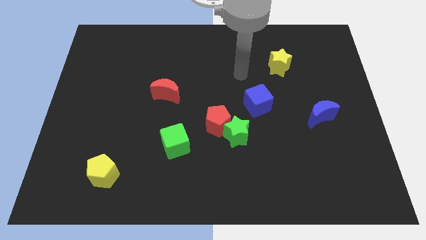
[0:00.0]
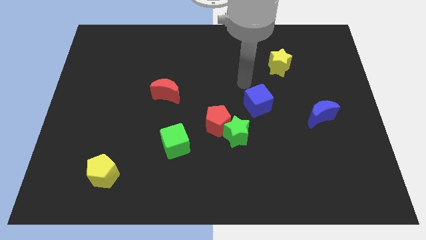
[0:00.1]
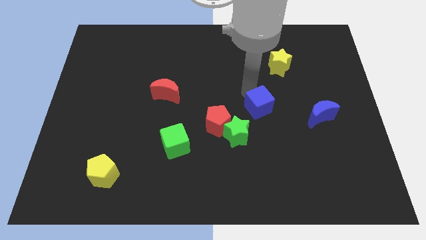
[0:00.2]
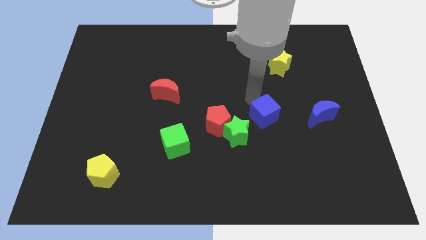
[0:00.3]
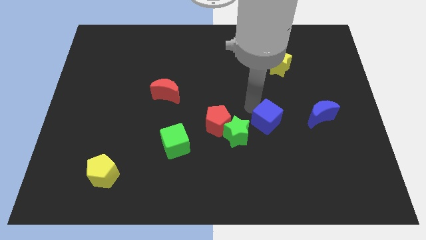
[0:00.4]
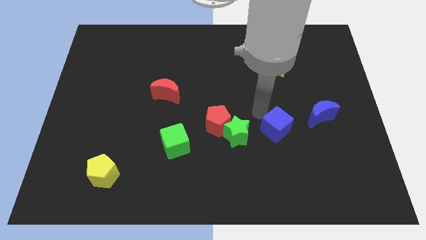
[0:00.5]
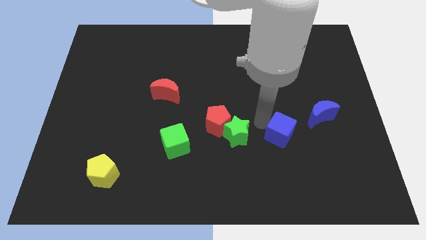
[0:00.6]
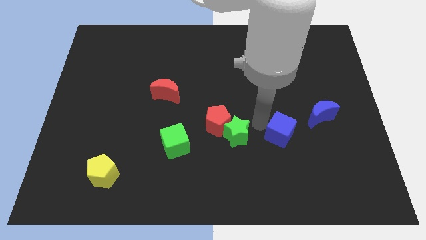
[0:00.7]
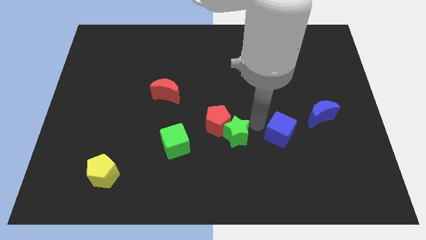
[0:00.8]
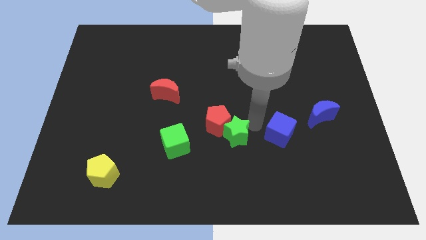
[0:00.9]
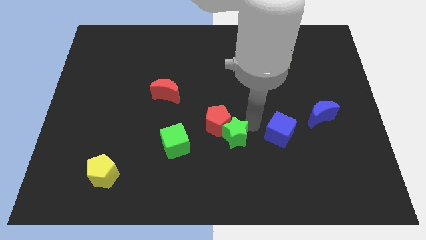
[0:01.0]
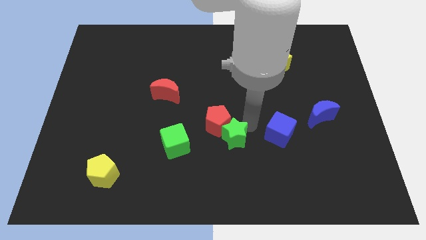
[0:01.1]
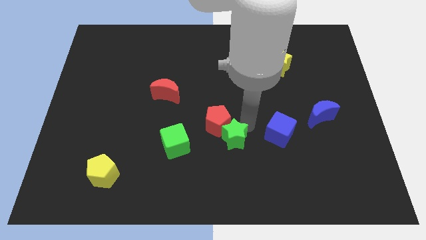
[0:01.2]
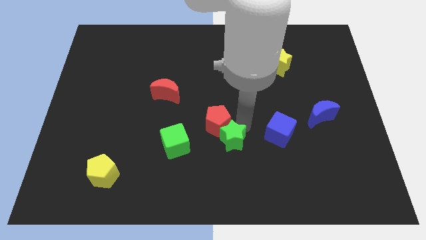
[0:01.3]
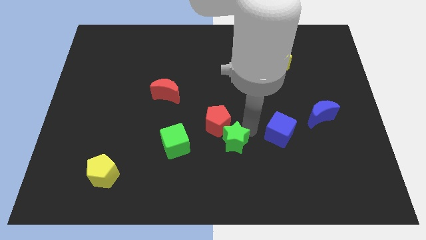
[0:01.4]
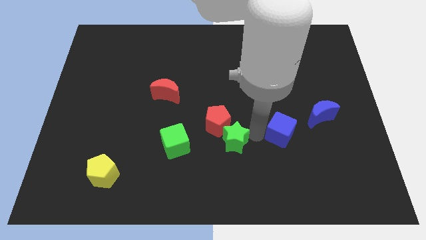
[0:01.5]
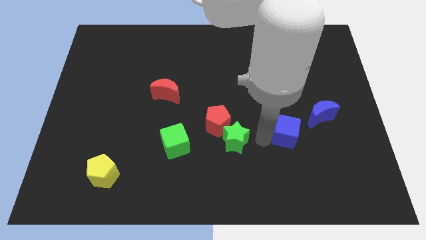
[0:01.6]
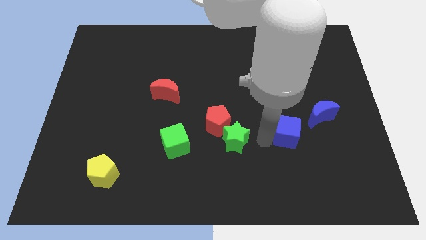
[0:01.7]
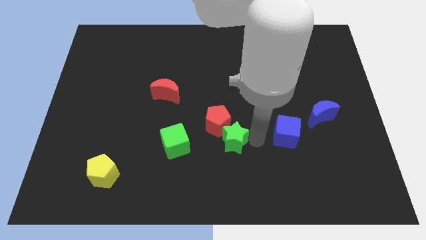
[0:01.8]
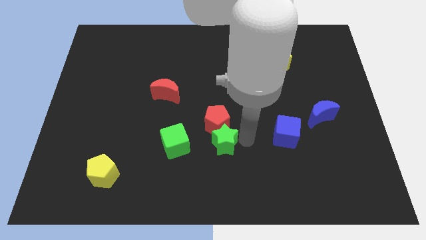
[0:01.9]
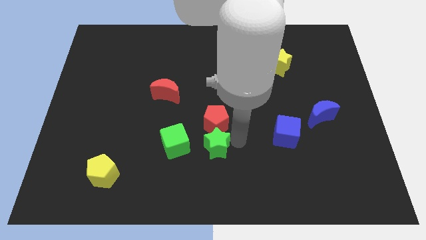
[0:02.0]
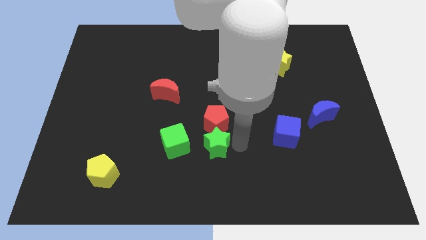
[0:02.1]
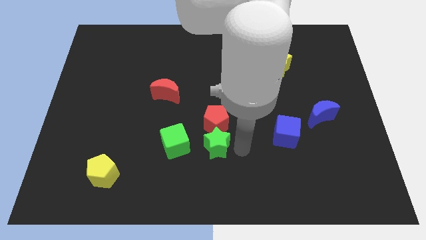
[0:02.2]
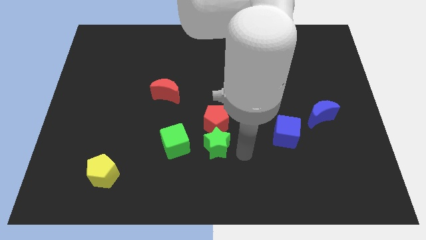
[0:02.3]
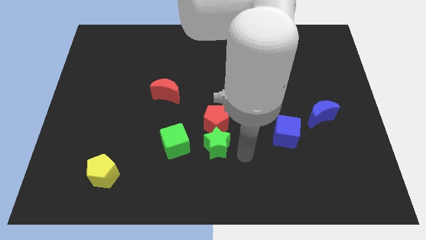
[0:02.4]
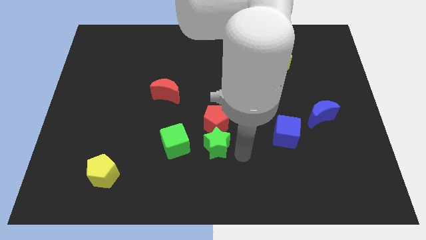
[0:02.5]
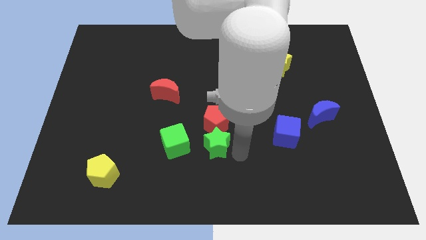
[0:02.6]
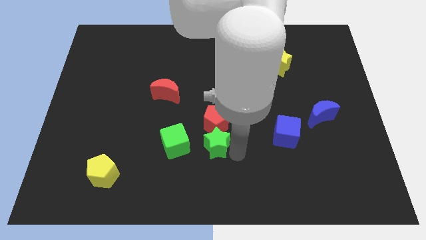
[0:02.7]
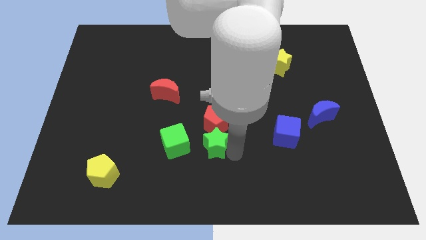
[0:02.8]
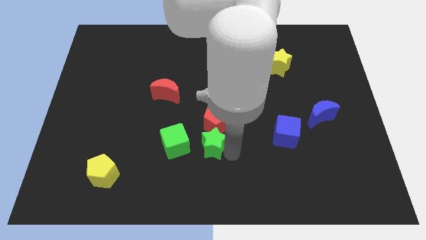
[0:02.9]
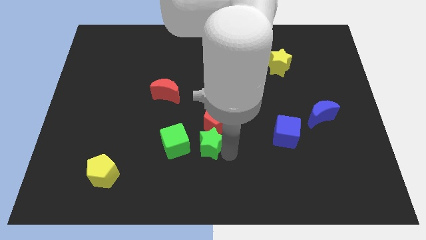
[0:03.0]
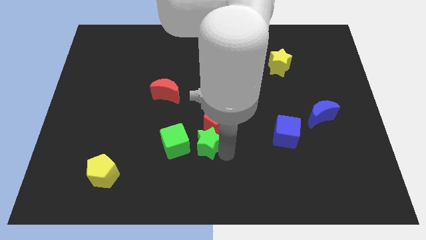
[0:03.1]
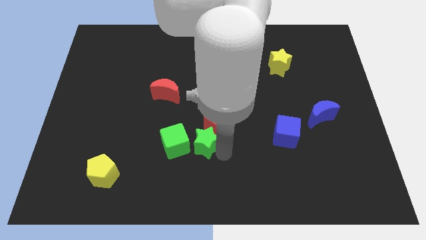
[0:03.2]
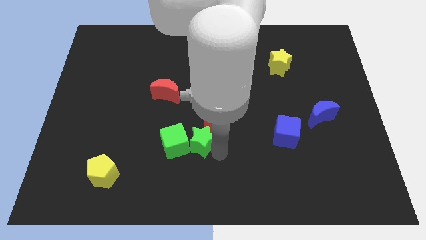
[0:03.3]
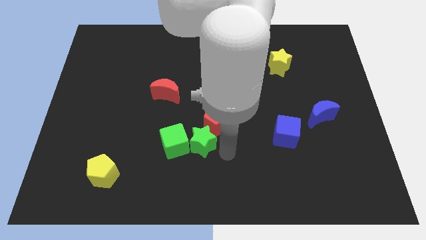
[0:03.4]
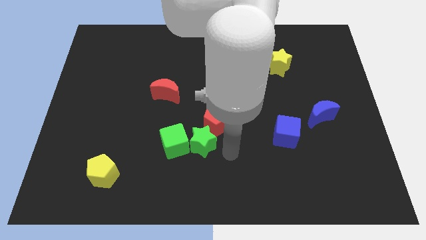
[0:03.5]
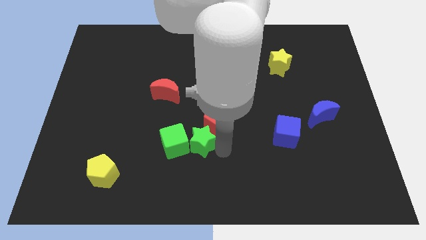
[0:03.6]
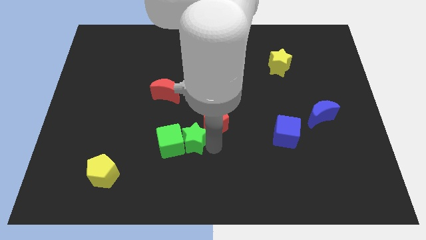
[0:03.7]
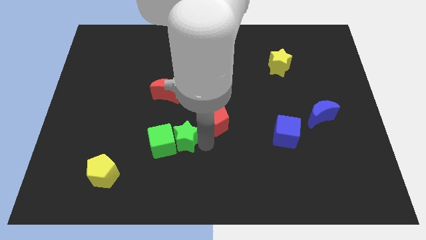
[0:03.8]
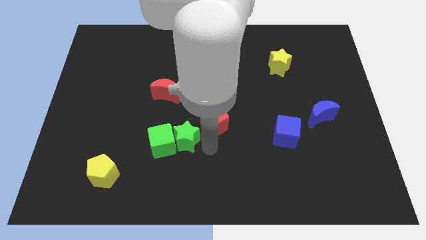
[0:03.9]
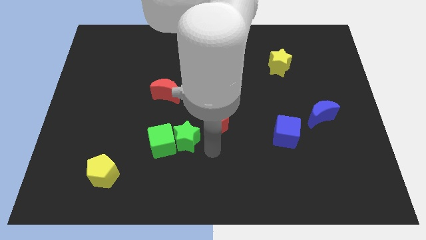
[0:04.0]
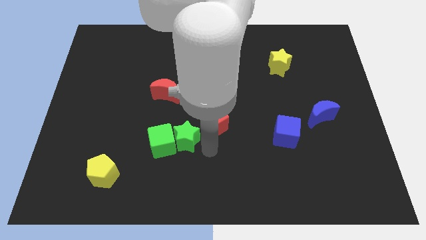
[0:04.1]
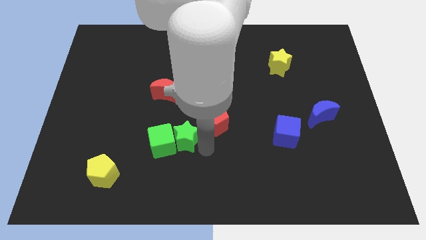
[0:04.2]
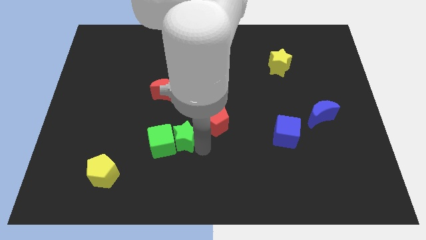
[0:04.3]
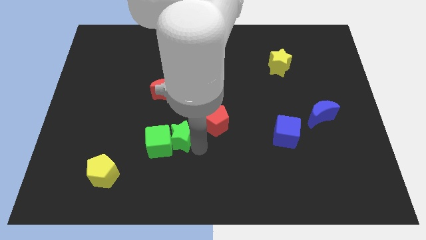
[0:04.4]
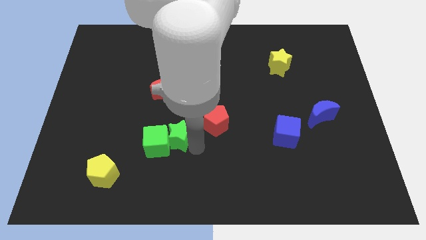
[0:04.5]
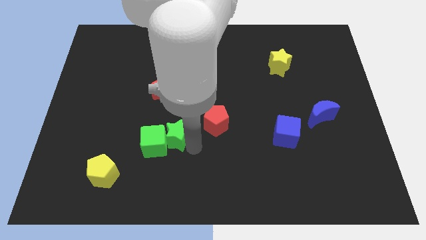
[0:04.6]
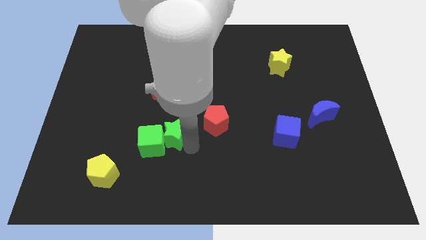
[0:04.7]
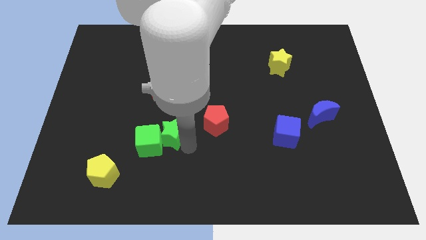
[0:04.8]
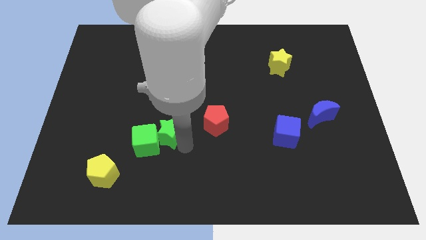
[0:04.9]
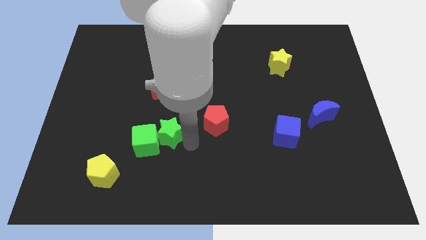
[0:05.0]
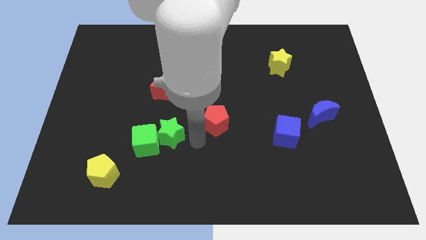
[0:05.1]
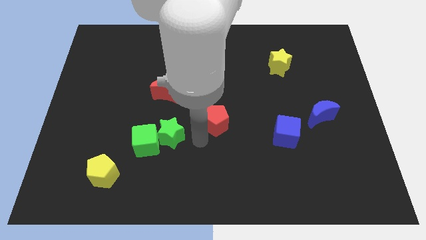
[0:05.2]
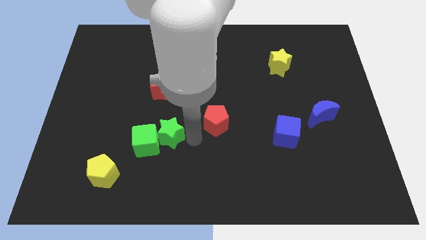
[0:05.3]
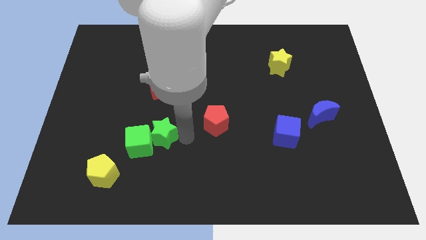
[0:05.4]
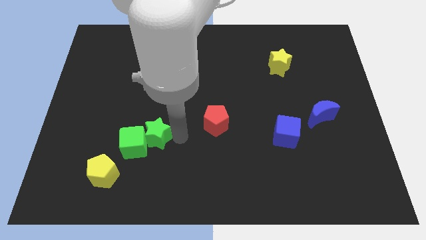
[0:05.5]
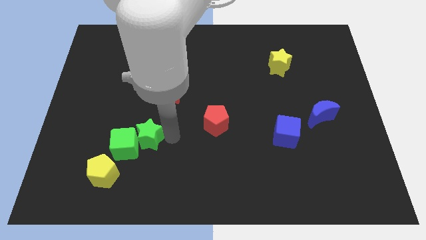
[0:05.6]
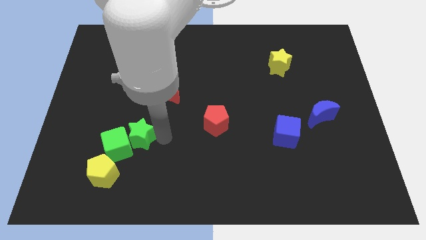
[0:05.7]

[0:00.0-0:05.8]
slide the green star left

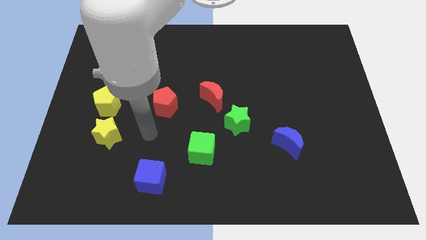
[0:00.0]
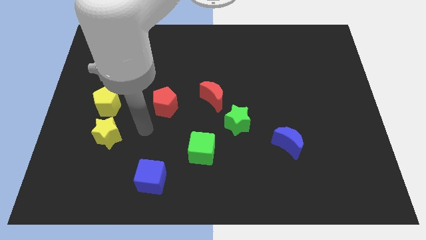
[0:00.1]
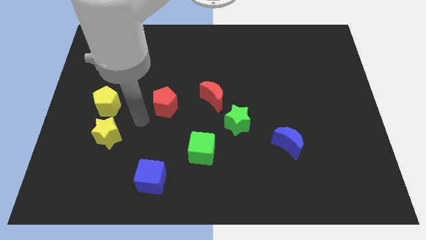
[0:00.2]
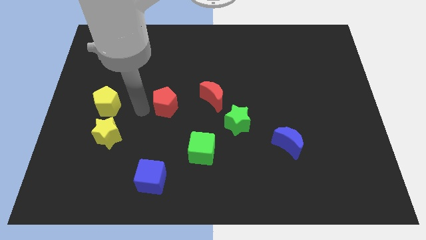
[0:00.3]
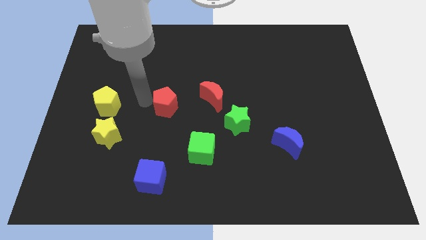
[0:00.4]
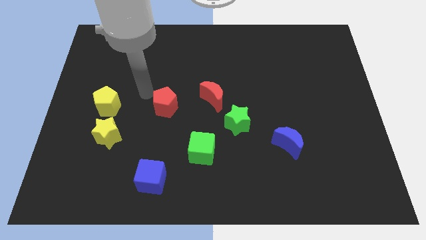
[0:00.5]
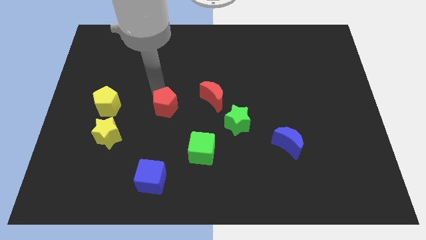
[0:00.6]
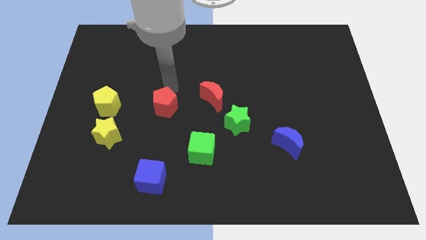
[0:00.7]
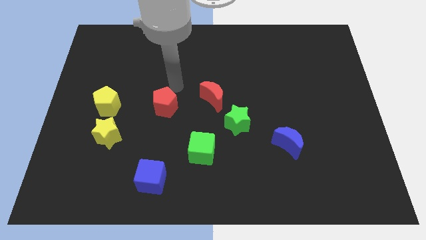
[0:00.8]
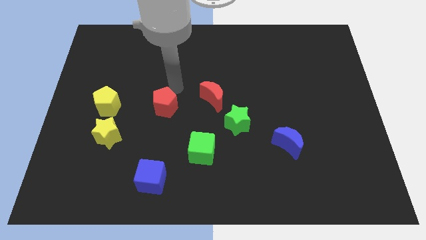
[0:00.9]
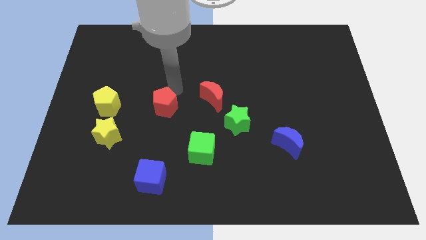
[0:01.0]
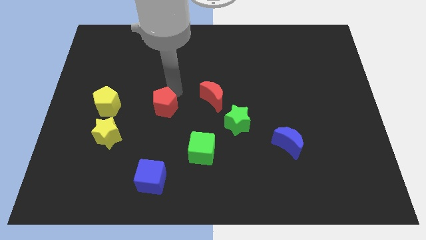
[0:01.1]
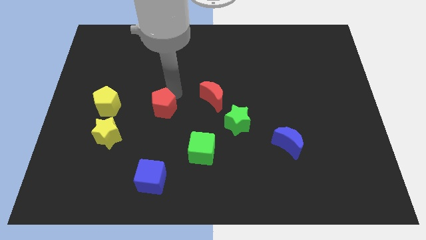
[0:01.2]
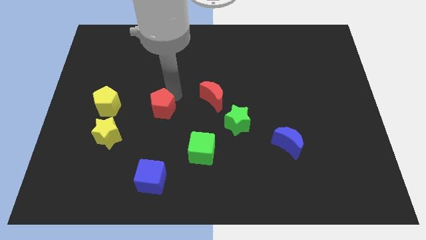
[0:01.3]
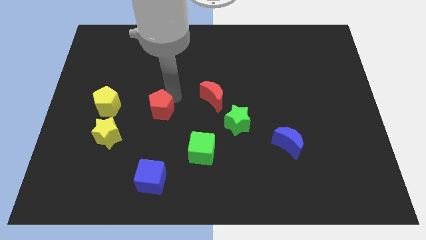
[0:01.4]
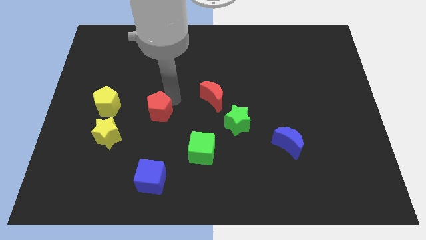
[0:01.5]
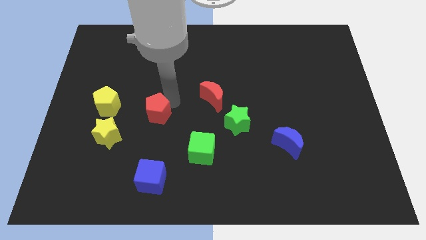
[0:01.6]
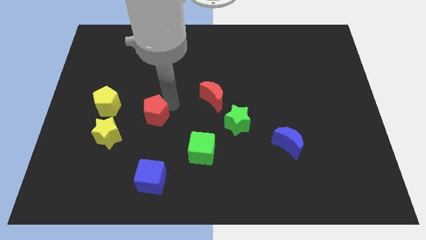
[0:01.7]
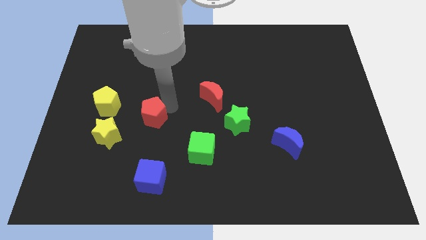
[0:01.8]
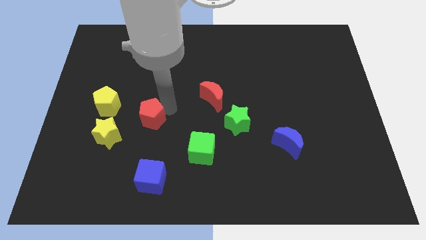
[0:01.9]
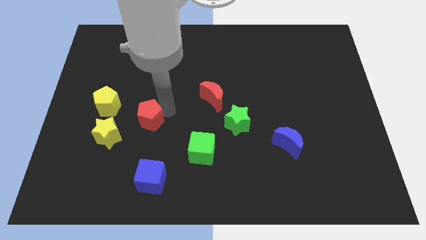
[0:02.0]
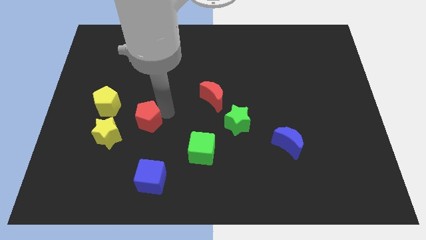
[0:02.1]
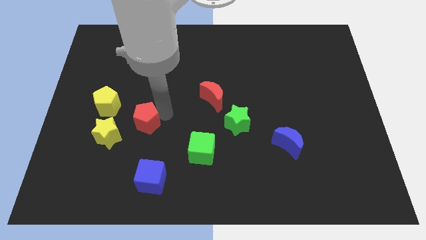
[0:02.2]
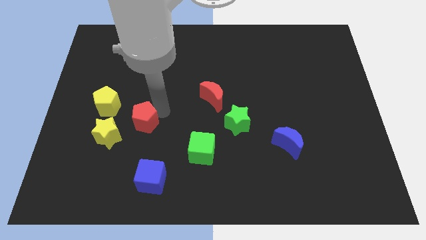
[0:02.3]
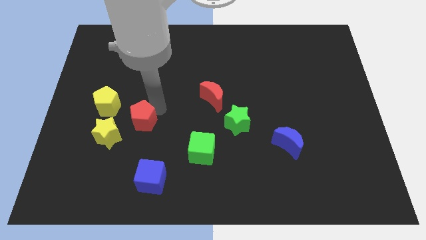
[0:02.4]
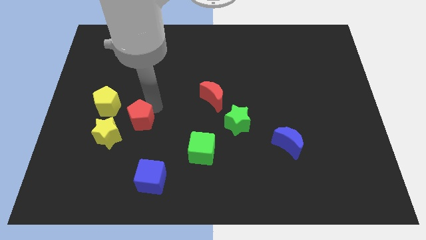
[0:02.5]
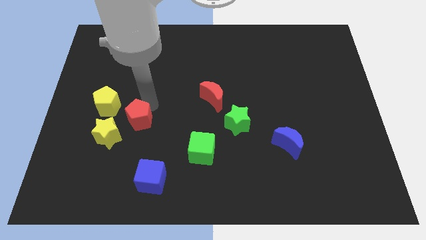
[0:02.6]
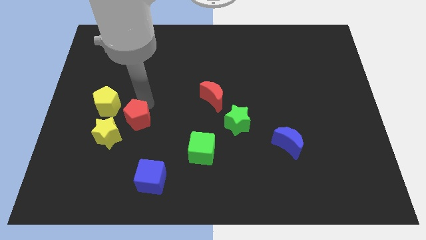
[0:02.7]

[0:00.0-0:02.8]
slightly slide the red pentagon down and left diagonally
